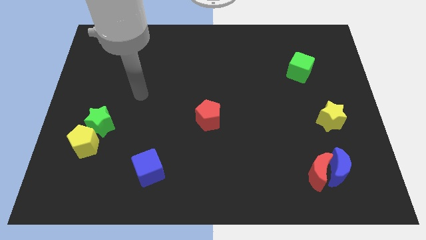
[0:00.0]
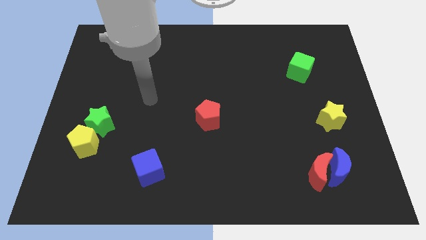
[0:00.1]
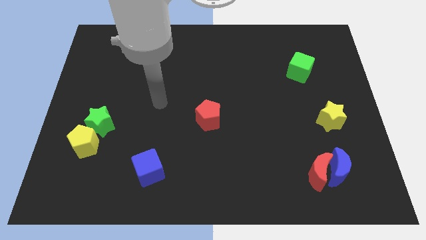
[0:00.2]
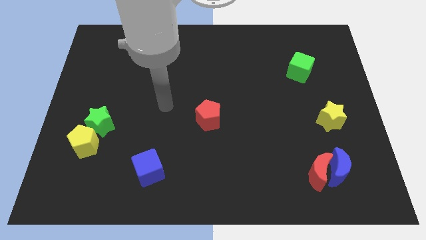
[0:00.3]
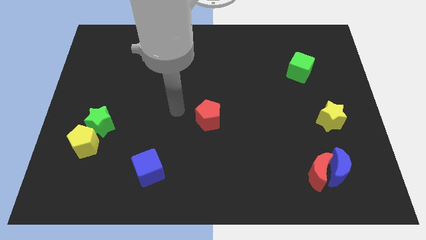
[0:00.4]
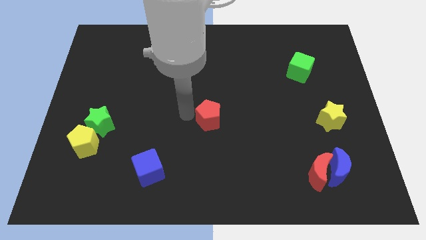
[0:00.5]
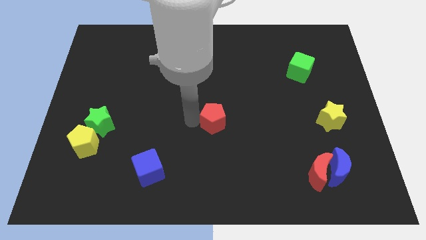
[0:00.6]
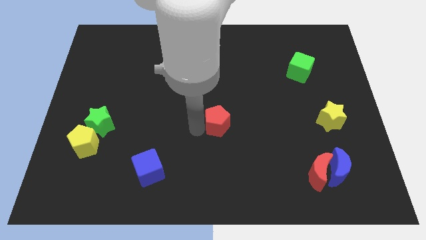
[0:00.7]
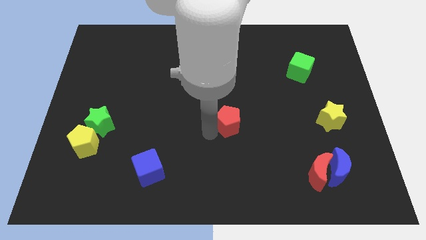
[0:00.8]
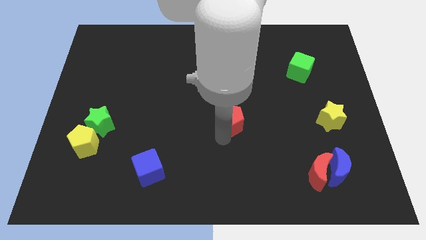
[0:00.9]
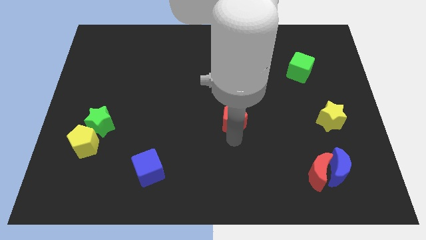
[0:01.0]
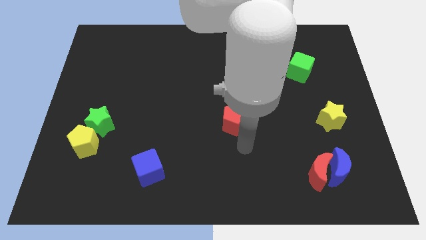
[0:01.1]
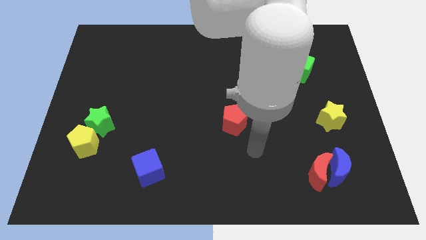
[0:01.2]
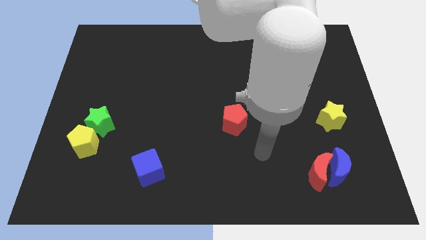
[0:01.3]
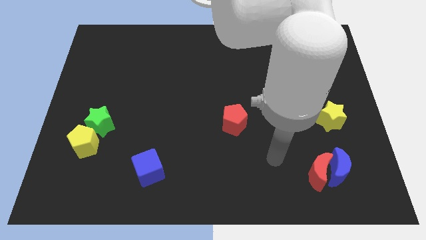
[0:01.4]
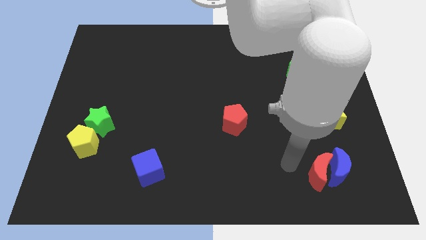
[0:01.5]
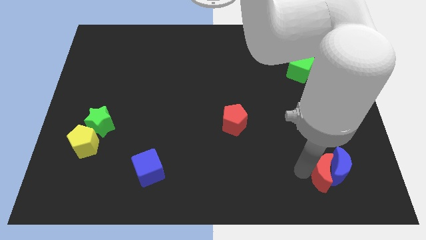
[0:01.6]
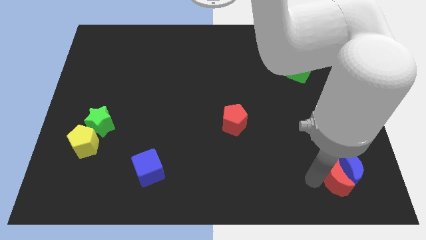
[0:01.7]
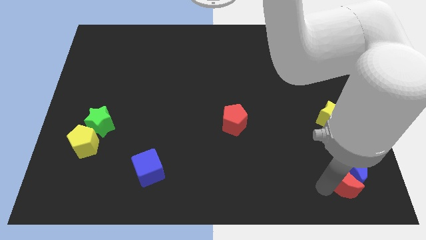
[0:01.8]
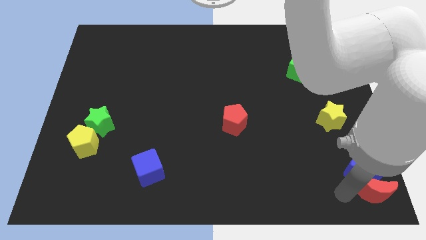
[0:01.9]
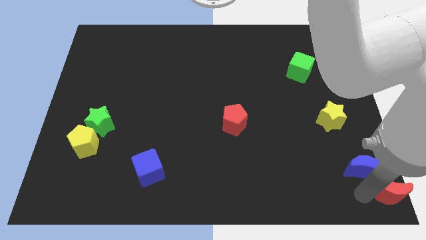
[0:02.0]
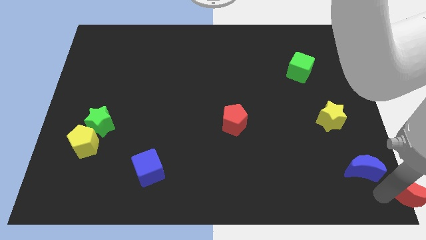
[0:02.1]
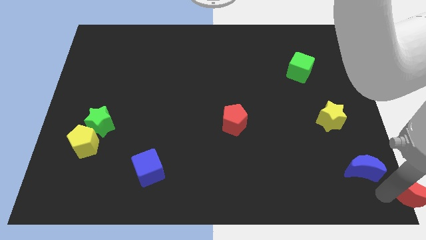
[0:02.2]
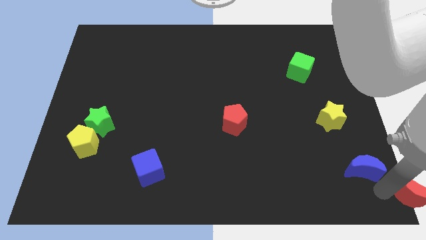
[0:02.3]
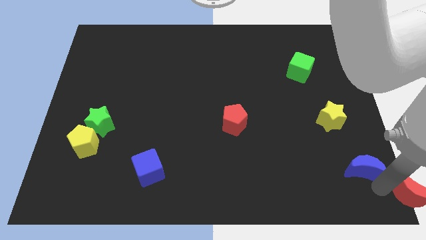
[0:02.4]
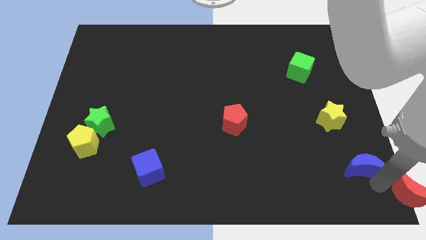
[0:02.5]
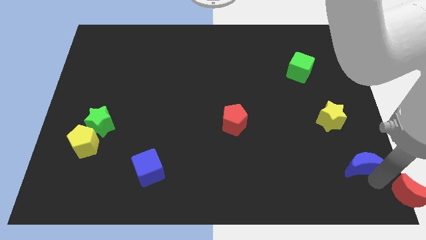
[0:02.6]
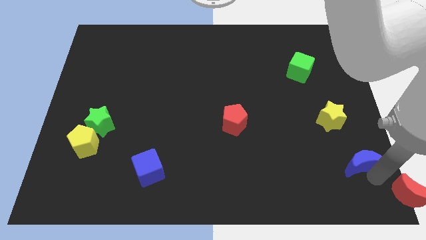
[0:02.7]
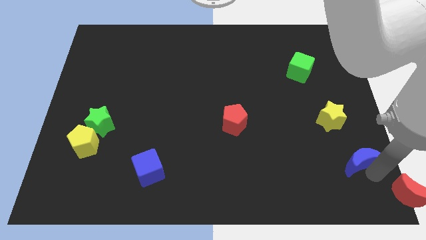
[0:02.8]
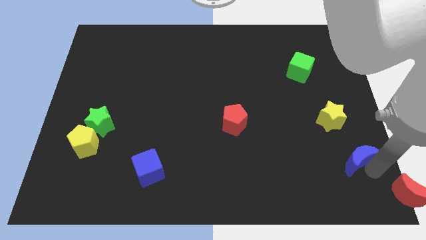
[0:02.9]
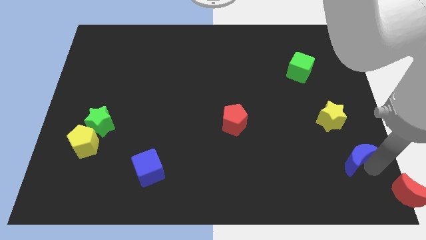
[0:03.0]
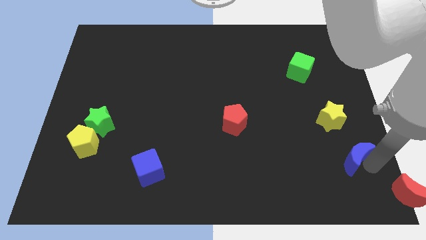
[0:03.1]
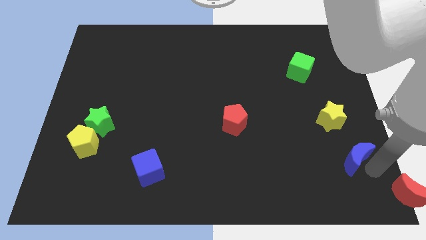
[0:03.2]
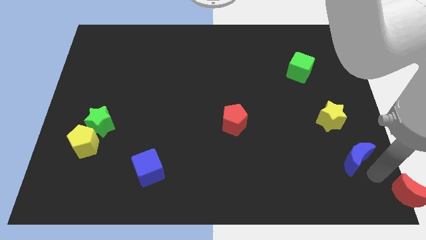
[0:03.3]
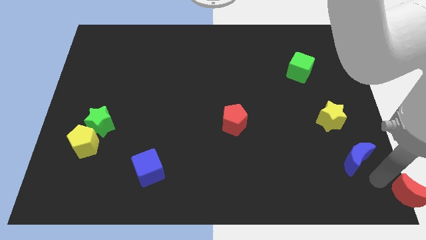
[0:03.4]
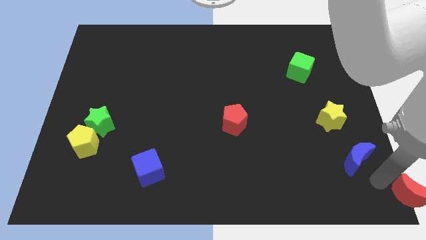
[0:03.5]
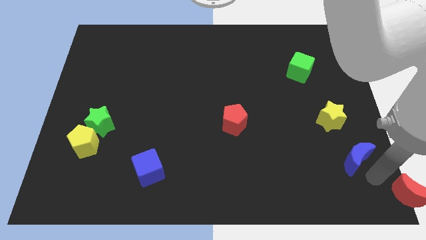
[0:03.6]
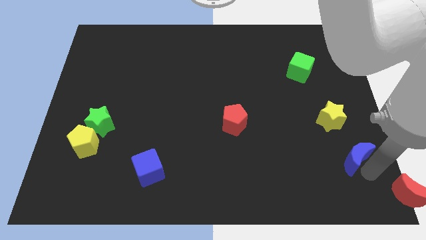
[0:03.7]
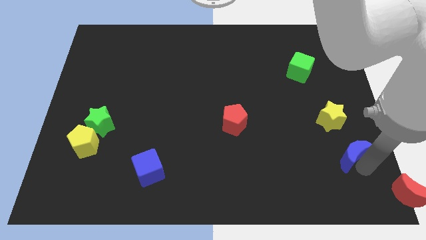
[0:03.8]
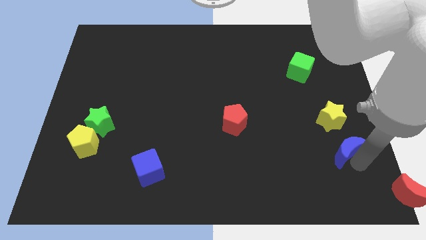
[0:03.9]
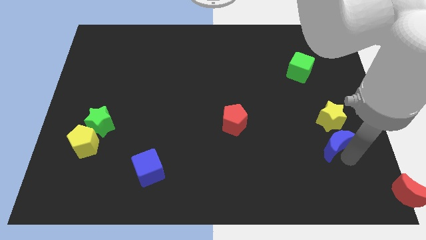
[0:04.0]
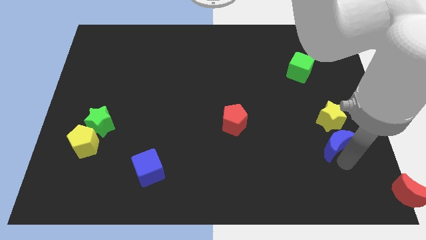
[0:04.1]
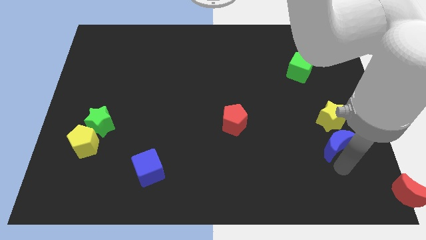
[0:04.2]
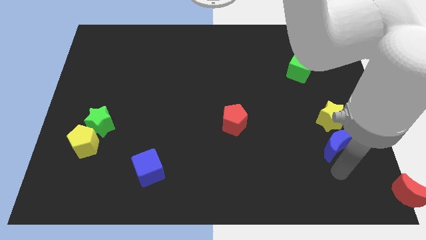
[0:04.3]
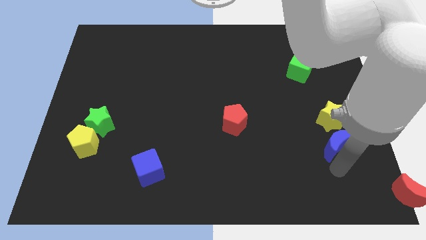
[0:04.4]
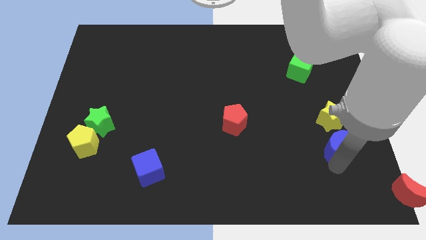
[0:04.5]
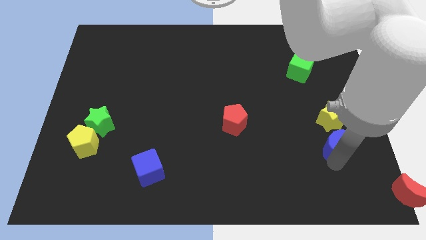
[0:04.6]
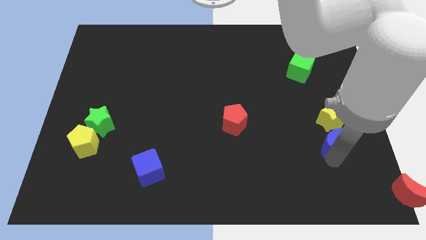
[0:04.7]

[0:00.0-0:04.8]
push the blue moon to the yellow star

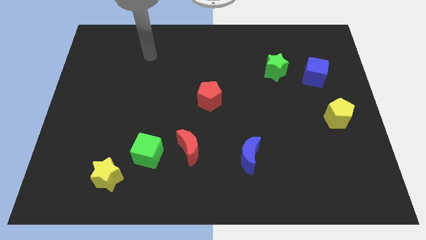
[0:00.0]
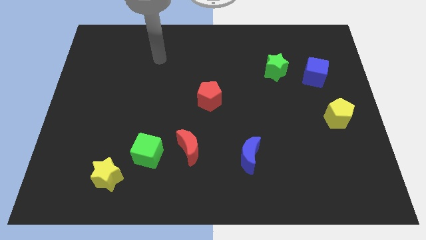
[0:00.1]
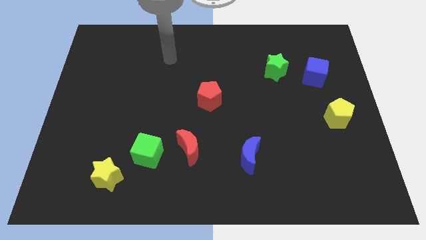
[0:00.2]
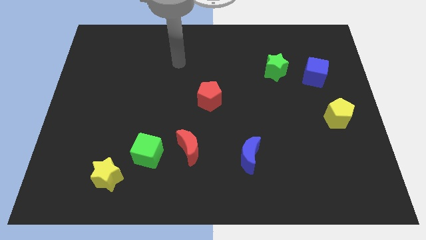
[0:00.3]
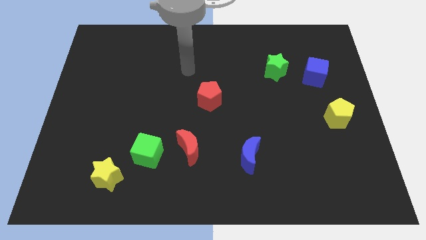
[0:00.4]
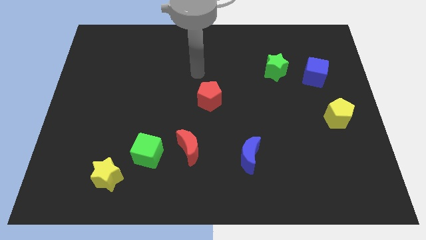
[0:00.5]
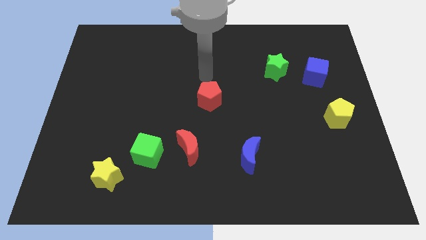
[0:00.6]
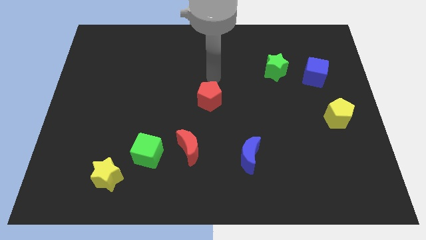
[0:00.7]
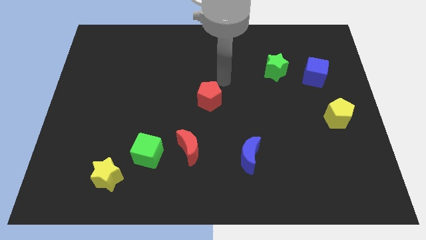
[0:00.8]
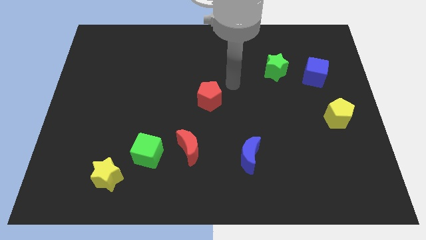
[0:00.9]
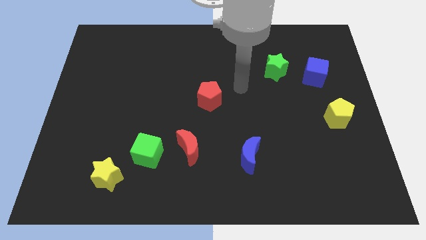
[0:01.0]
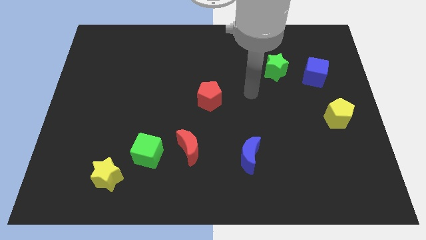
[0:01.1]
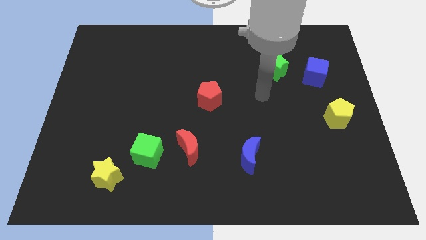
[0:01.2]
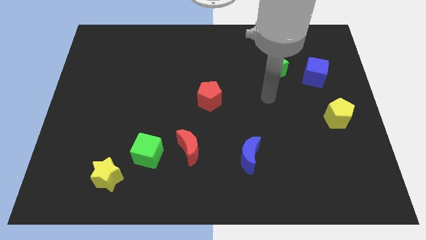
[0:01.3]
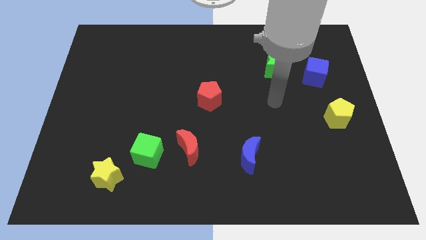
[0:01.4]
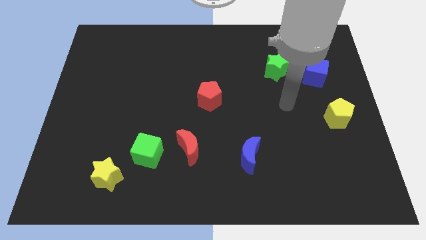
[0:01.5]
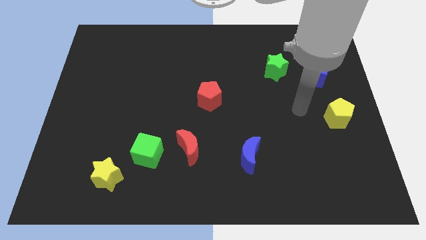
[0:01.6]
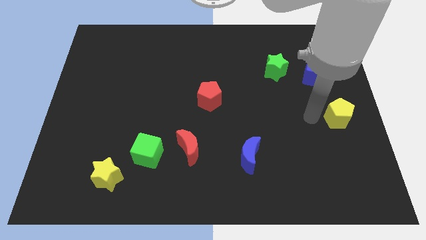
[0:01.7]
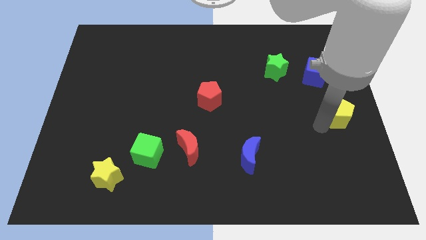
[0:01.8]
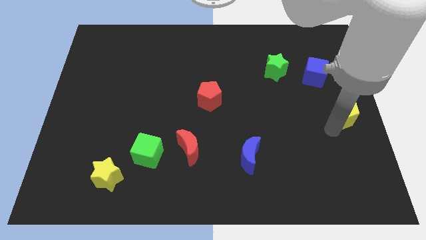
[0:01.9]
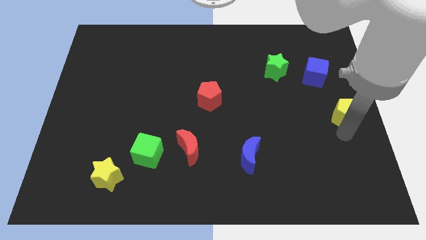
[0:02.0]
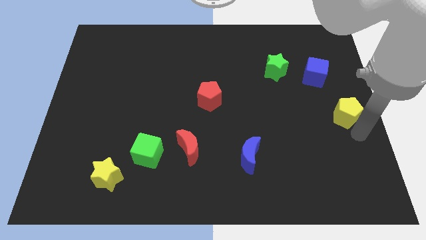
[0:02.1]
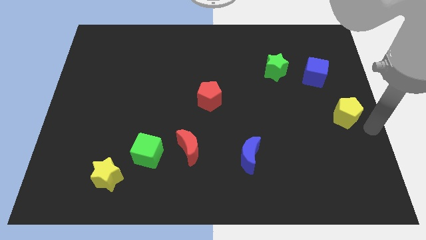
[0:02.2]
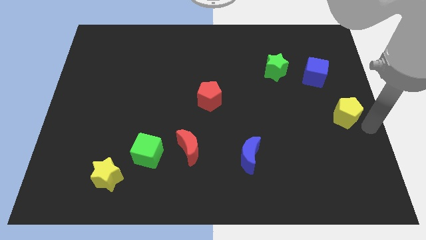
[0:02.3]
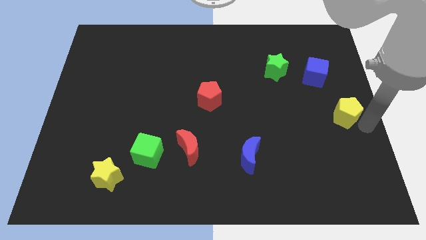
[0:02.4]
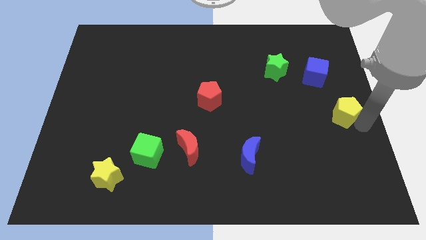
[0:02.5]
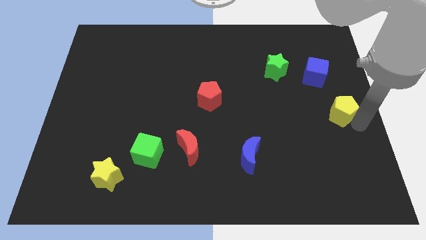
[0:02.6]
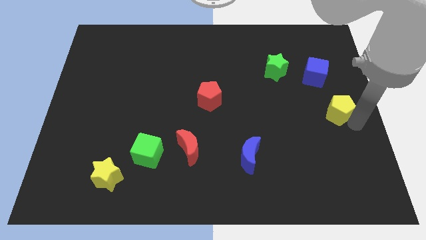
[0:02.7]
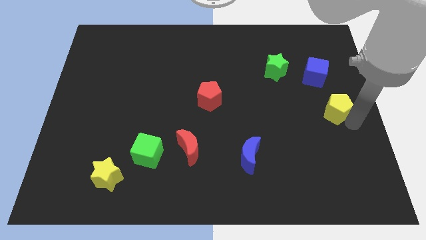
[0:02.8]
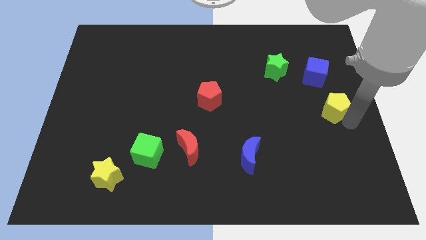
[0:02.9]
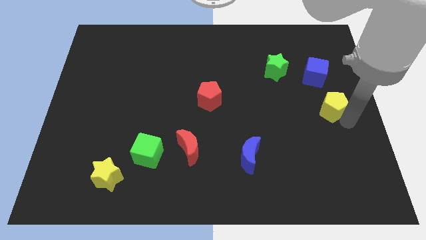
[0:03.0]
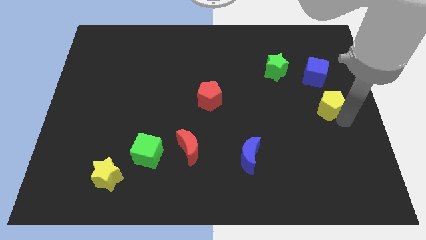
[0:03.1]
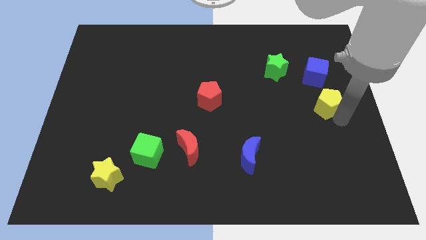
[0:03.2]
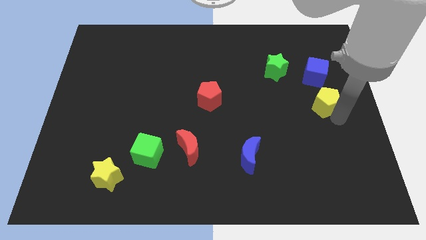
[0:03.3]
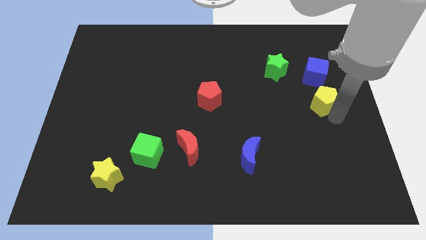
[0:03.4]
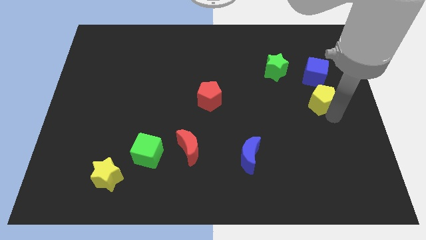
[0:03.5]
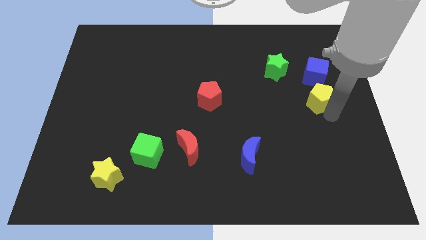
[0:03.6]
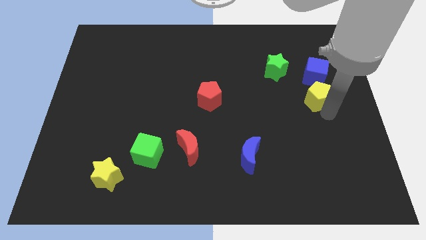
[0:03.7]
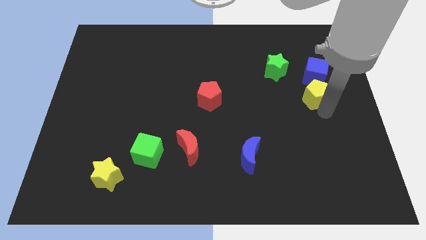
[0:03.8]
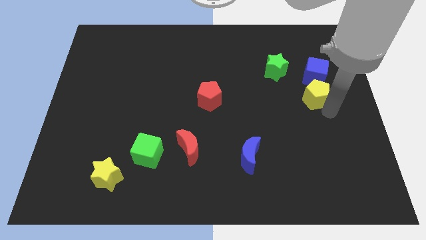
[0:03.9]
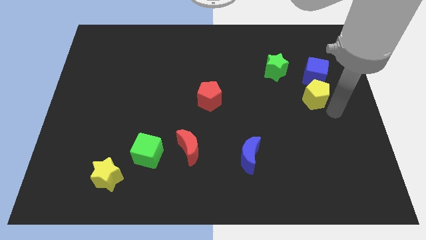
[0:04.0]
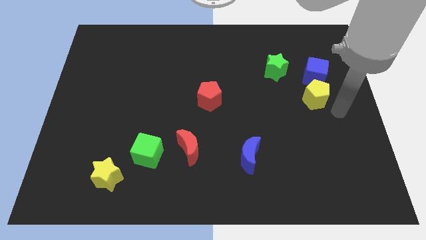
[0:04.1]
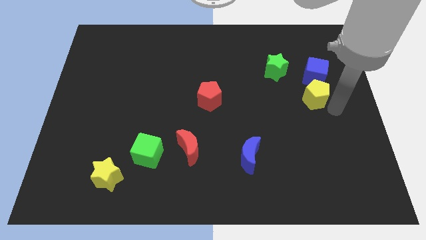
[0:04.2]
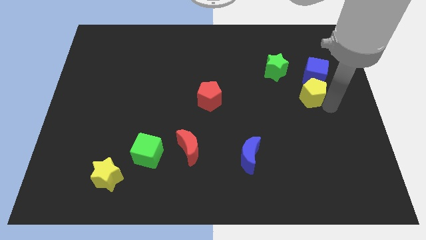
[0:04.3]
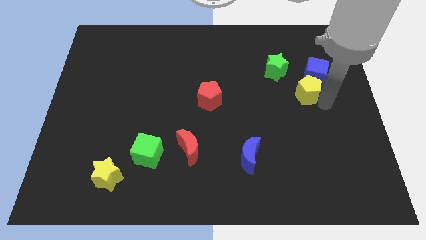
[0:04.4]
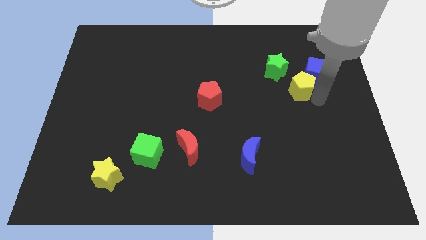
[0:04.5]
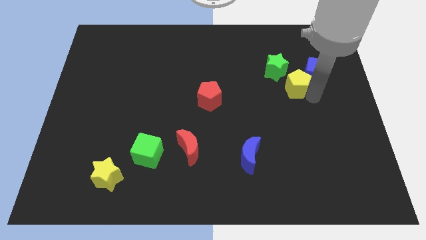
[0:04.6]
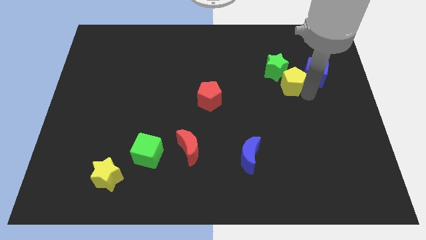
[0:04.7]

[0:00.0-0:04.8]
push the yellow pentagon to the green star
